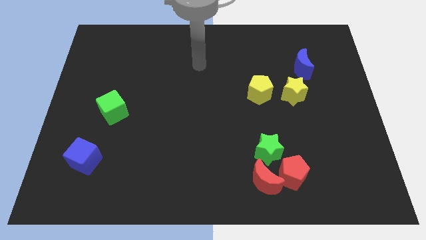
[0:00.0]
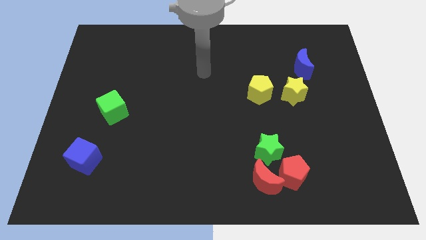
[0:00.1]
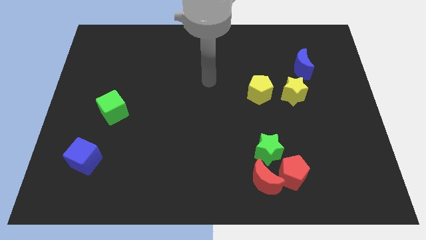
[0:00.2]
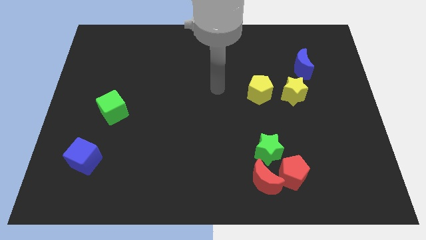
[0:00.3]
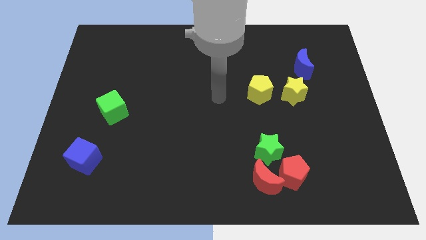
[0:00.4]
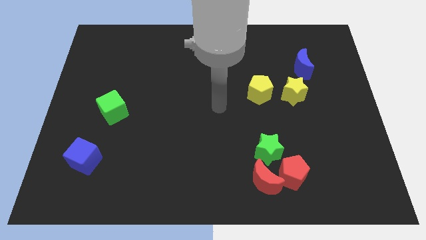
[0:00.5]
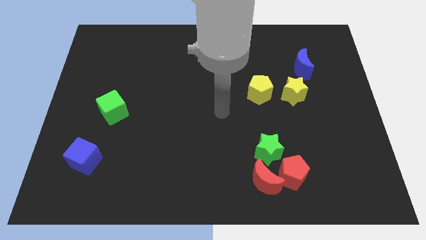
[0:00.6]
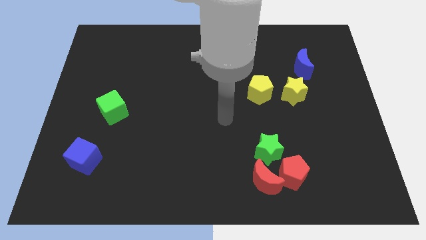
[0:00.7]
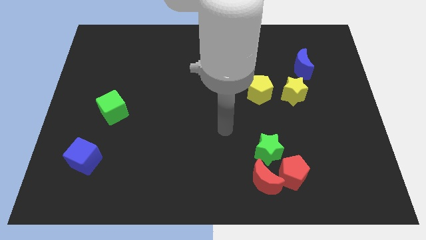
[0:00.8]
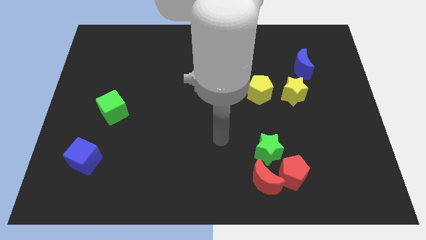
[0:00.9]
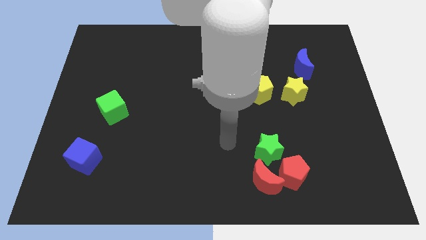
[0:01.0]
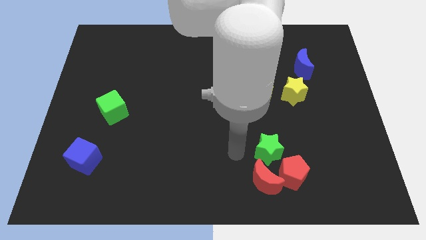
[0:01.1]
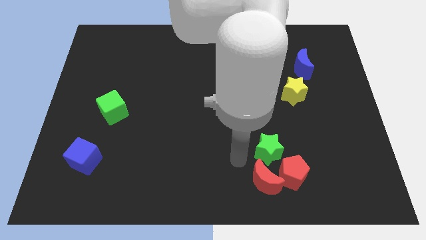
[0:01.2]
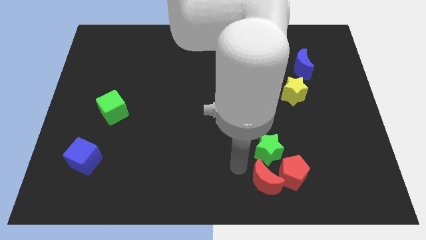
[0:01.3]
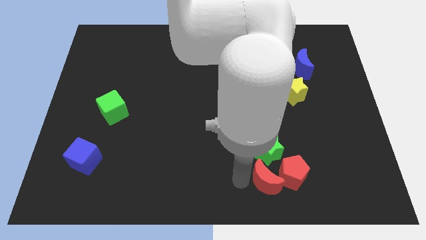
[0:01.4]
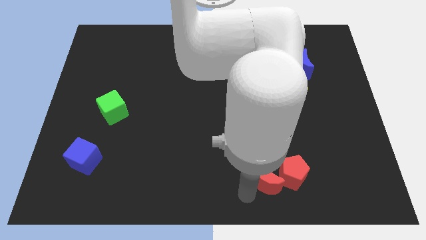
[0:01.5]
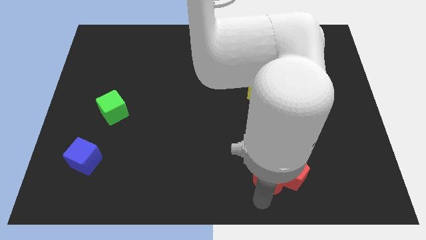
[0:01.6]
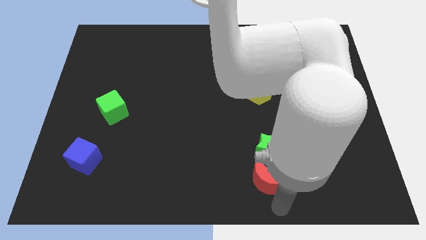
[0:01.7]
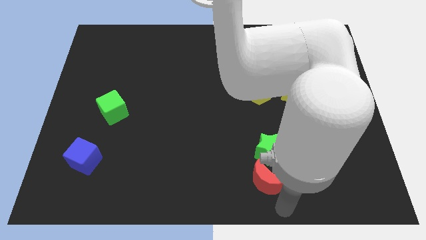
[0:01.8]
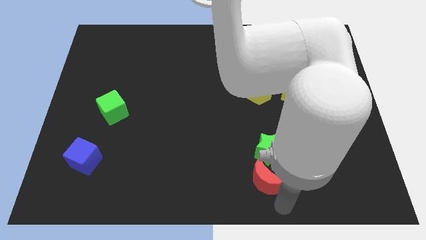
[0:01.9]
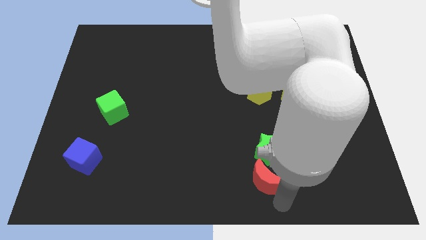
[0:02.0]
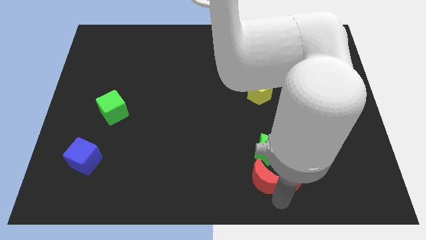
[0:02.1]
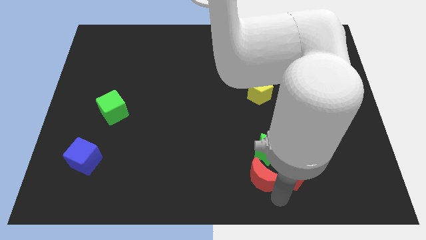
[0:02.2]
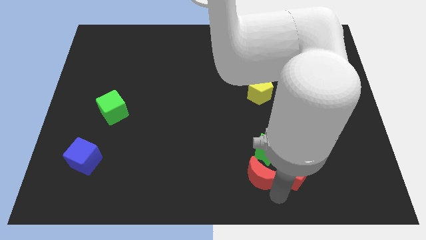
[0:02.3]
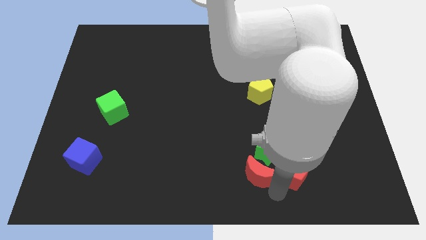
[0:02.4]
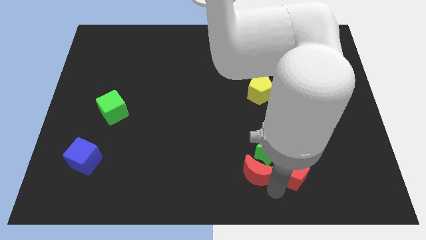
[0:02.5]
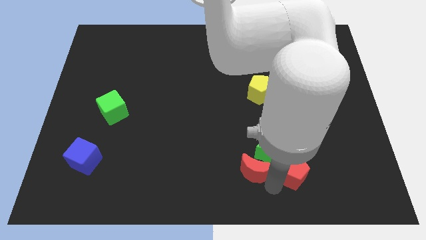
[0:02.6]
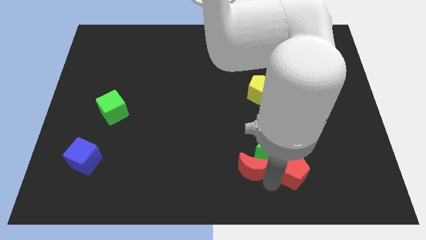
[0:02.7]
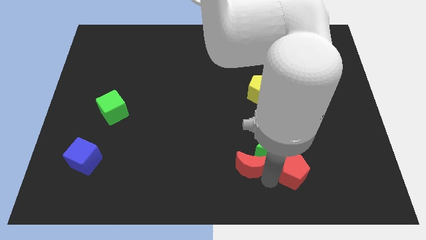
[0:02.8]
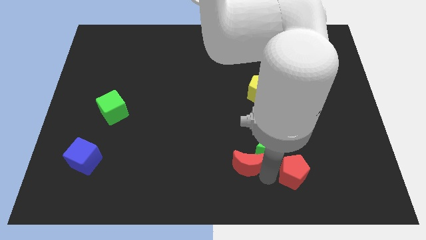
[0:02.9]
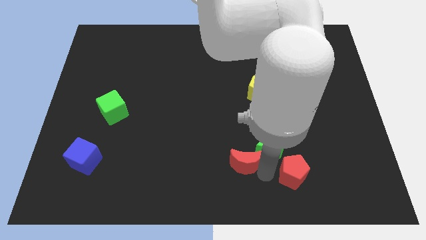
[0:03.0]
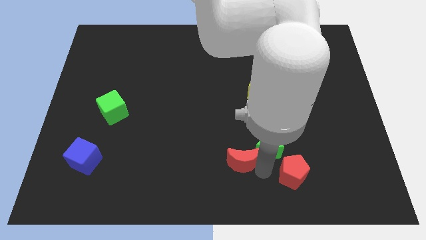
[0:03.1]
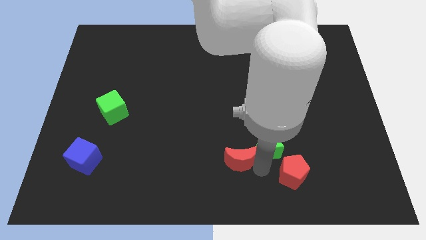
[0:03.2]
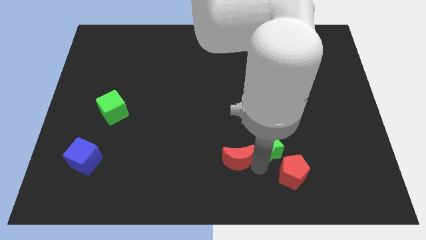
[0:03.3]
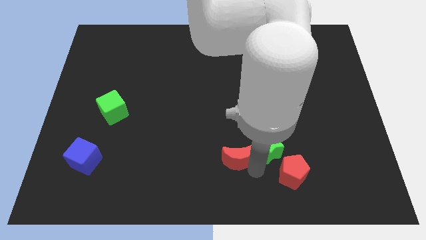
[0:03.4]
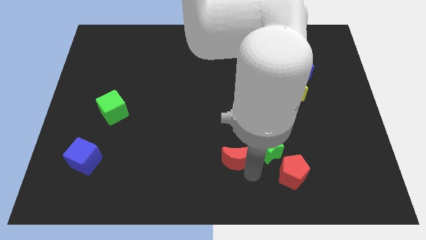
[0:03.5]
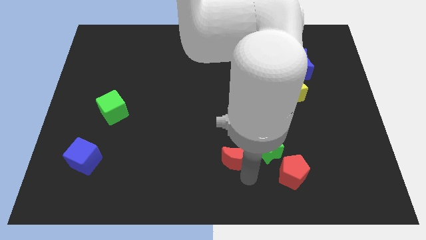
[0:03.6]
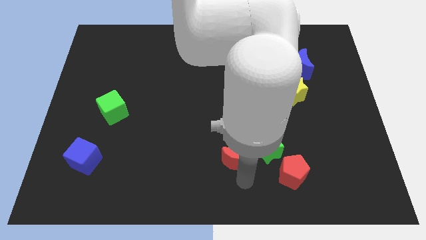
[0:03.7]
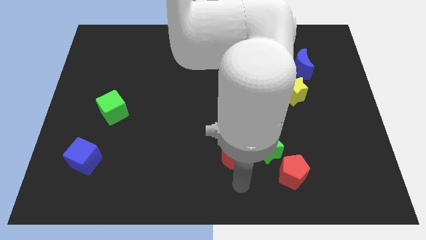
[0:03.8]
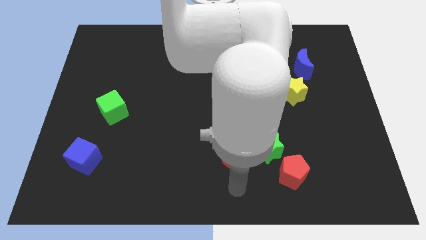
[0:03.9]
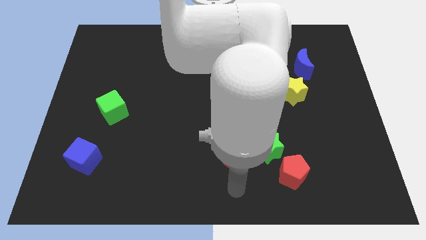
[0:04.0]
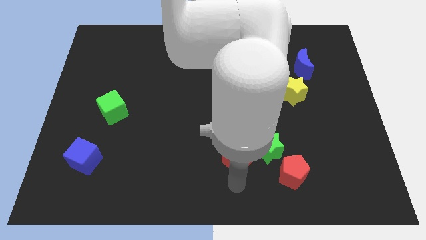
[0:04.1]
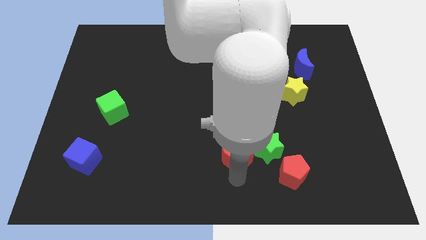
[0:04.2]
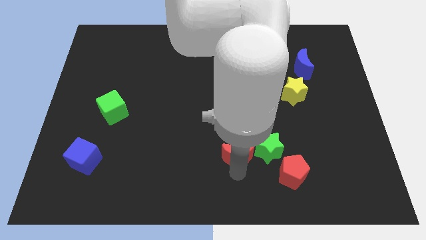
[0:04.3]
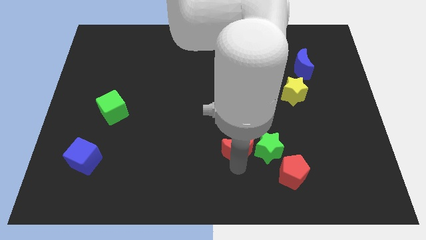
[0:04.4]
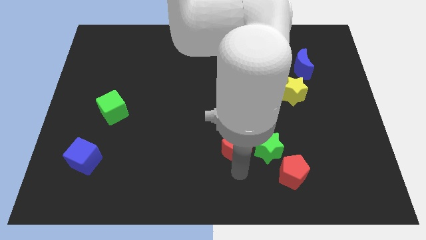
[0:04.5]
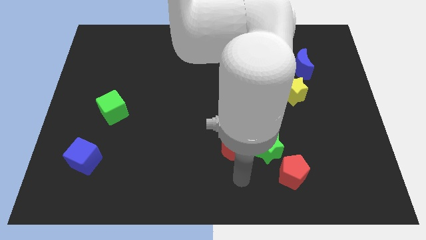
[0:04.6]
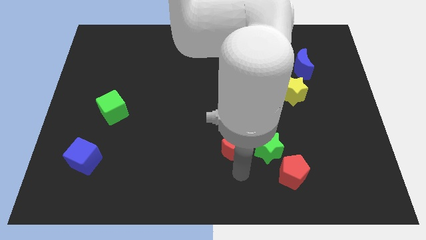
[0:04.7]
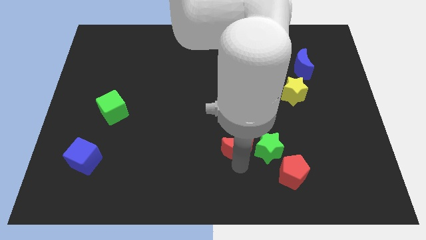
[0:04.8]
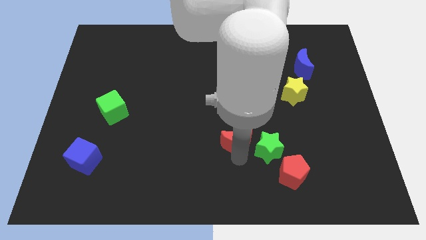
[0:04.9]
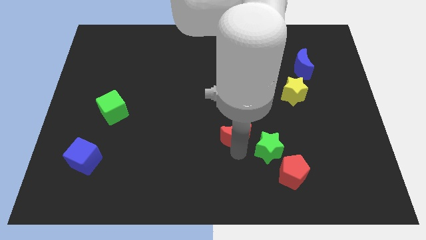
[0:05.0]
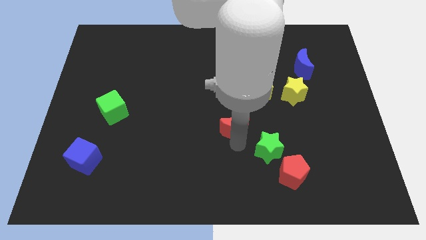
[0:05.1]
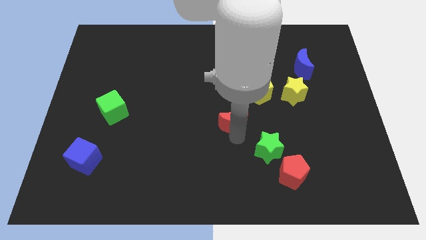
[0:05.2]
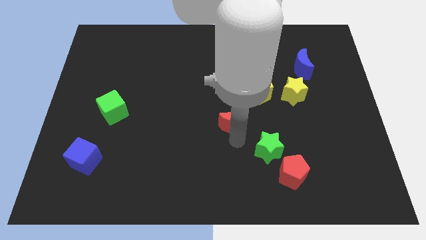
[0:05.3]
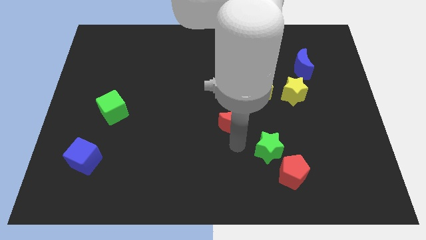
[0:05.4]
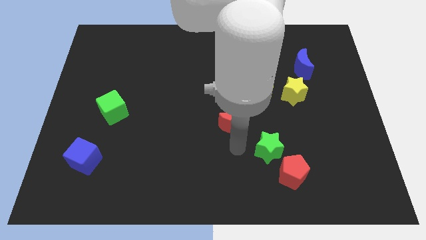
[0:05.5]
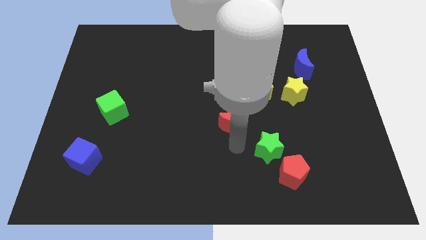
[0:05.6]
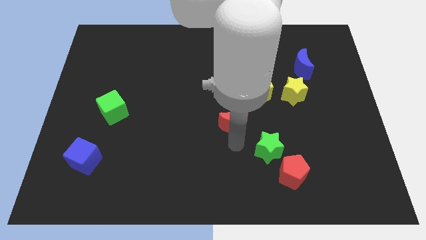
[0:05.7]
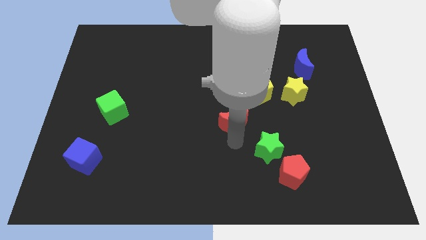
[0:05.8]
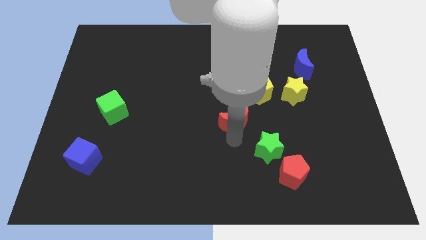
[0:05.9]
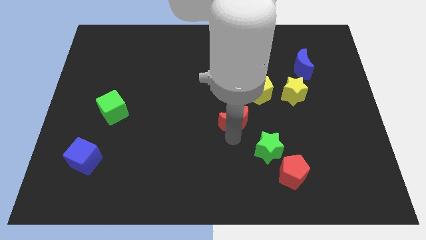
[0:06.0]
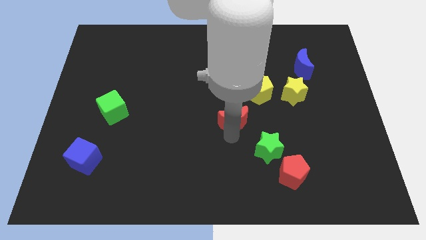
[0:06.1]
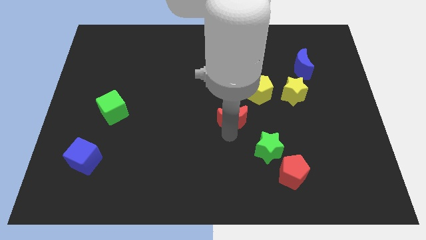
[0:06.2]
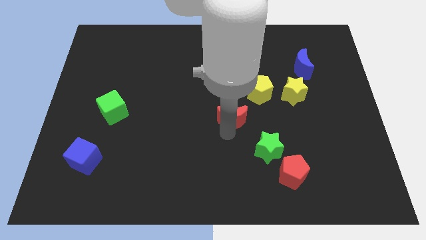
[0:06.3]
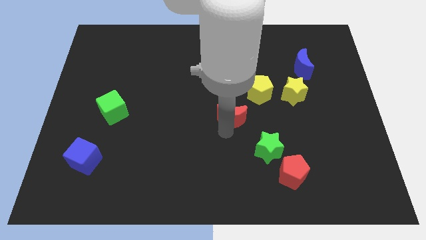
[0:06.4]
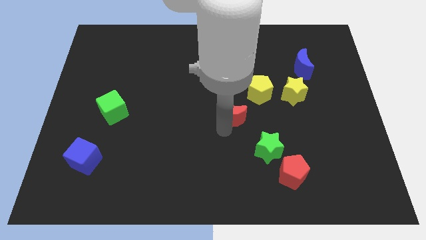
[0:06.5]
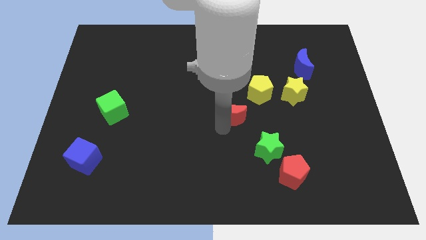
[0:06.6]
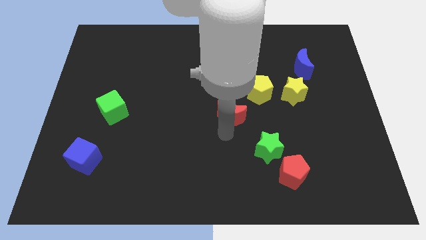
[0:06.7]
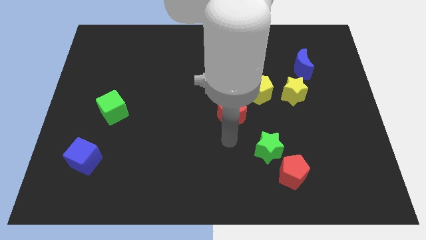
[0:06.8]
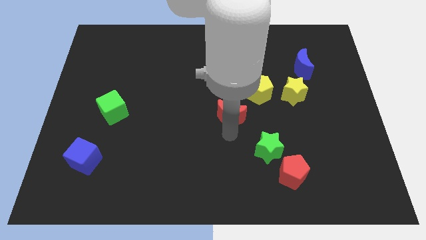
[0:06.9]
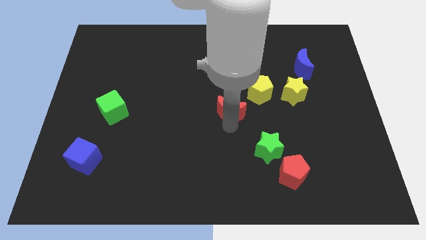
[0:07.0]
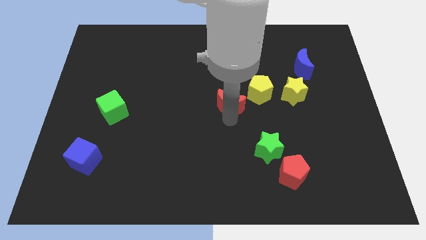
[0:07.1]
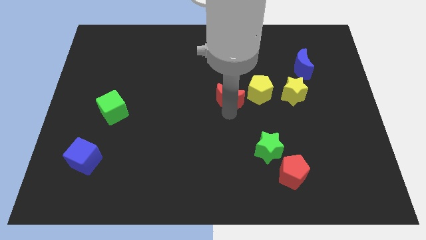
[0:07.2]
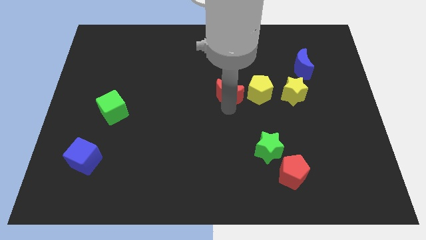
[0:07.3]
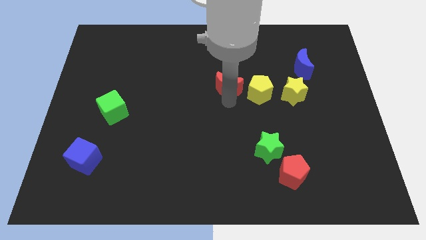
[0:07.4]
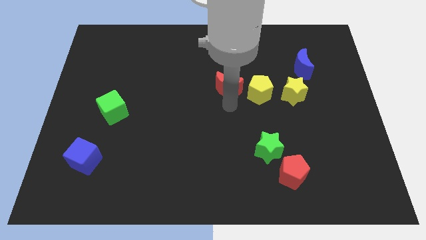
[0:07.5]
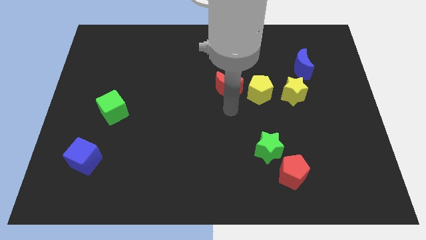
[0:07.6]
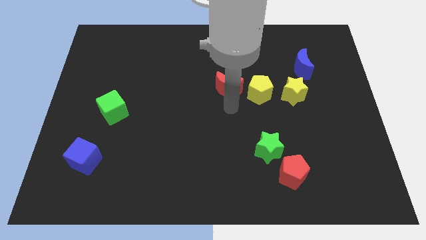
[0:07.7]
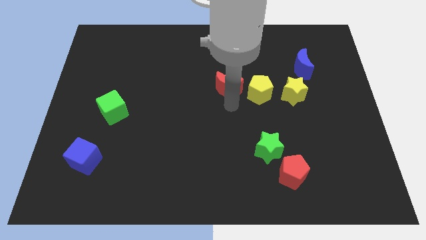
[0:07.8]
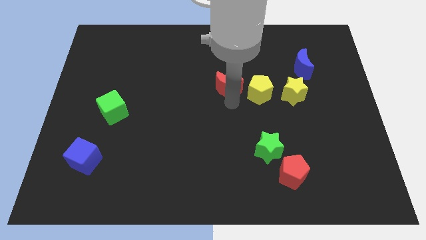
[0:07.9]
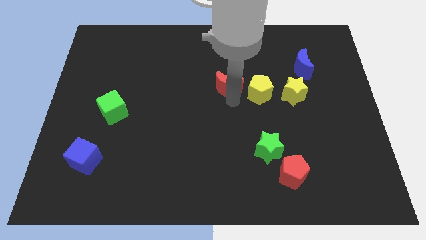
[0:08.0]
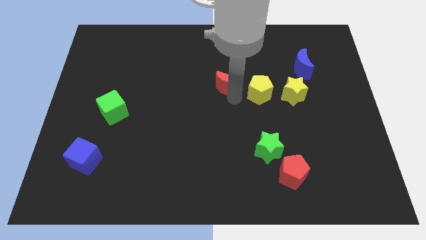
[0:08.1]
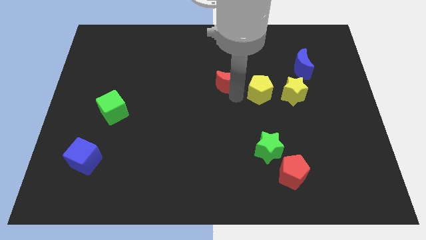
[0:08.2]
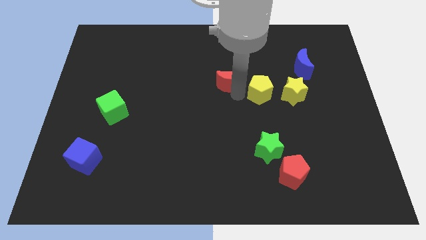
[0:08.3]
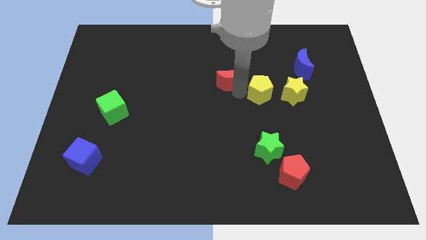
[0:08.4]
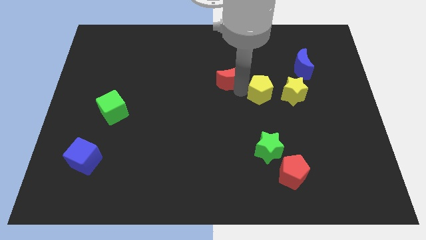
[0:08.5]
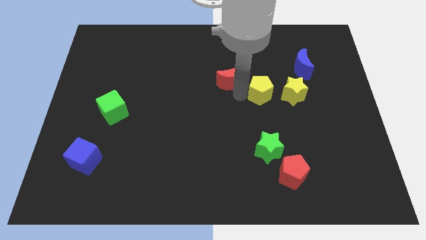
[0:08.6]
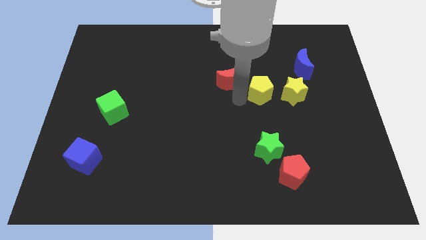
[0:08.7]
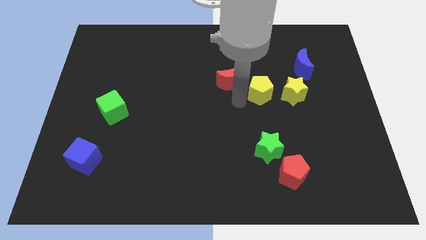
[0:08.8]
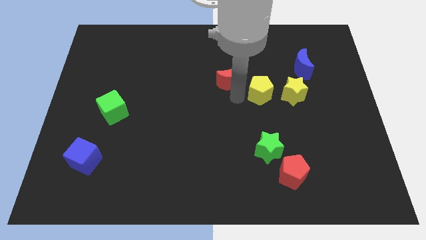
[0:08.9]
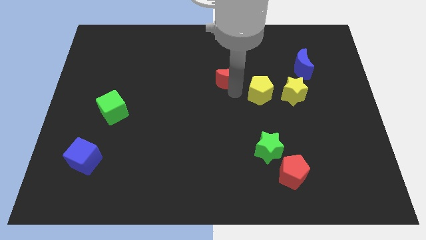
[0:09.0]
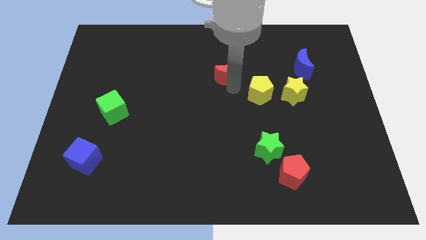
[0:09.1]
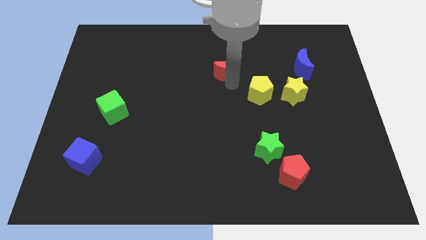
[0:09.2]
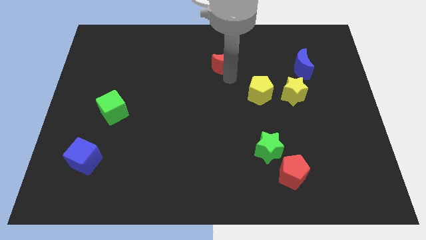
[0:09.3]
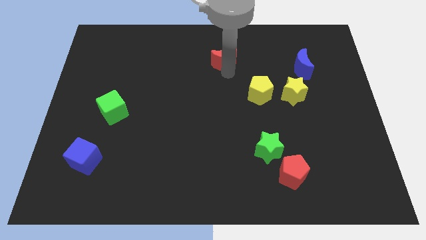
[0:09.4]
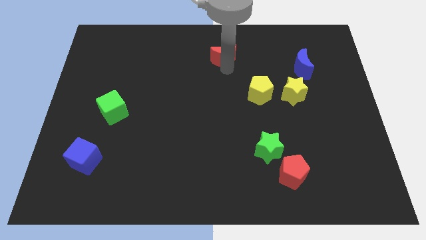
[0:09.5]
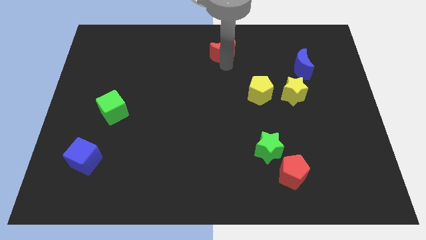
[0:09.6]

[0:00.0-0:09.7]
slide the red moon to the top side
